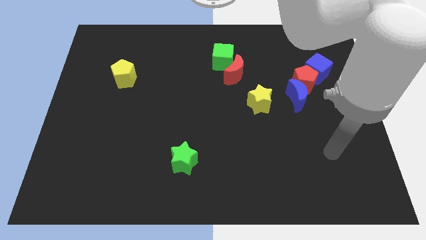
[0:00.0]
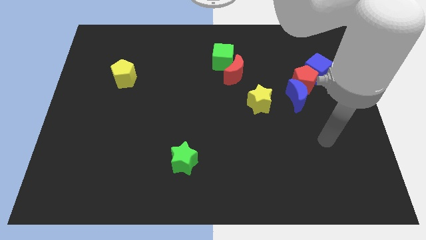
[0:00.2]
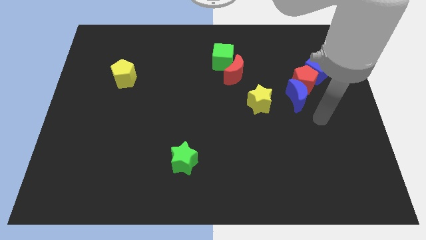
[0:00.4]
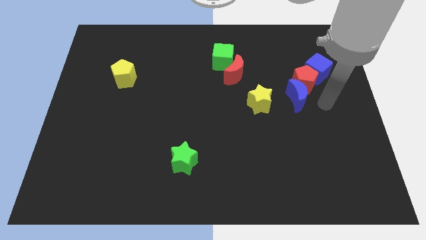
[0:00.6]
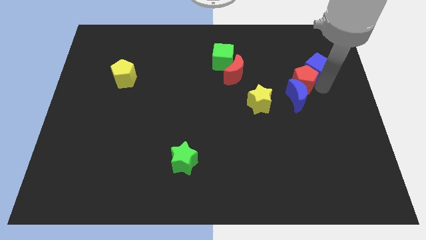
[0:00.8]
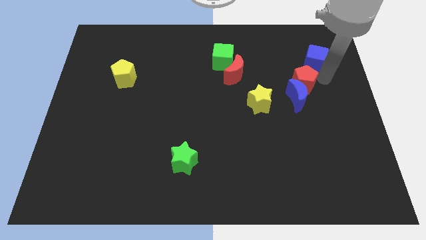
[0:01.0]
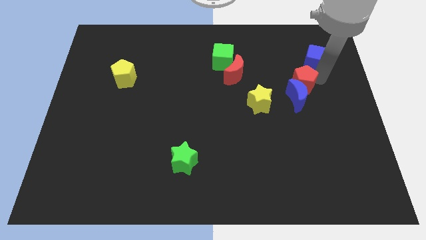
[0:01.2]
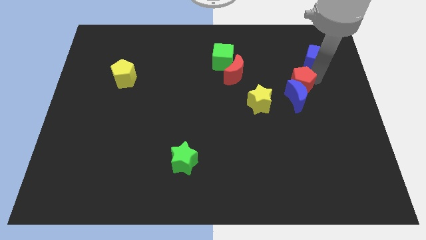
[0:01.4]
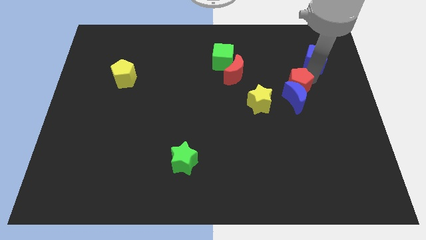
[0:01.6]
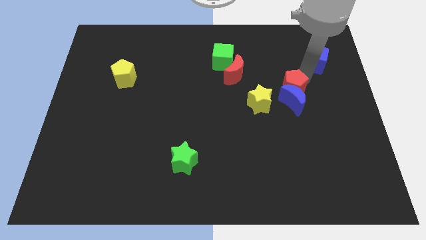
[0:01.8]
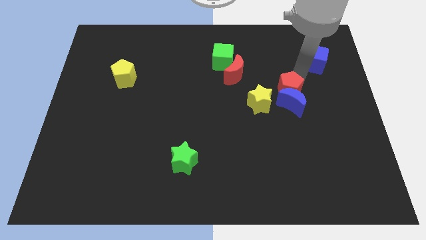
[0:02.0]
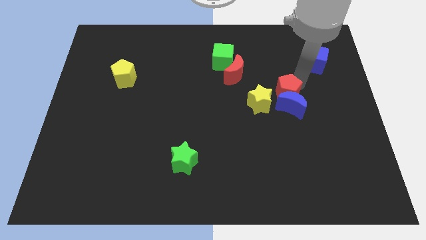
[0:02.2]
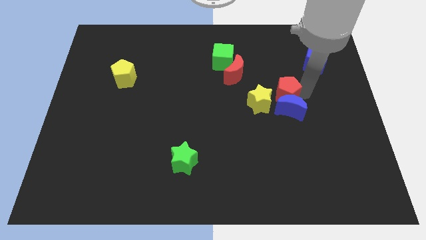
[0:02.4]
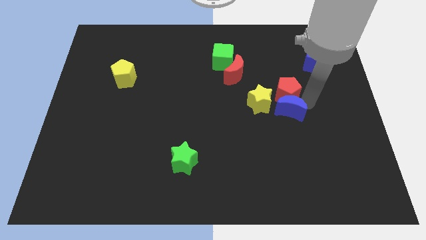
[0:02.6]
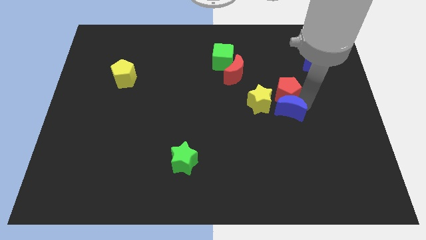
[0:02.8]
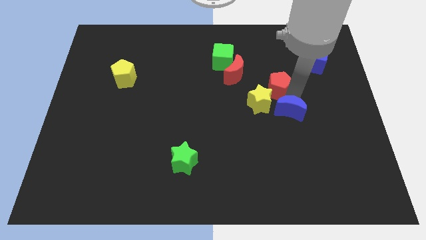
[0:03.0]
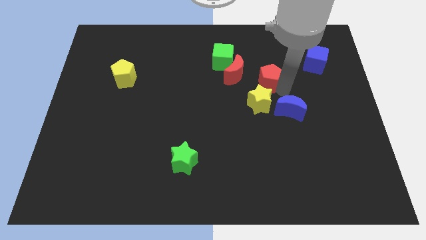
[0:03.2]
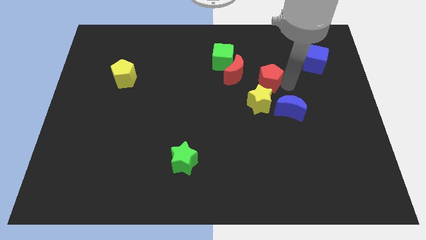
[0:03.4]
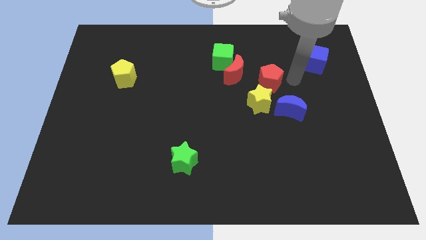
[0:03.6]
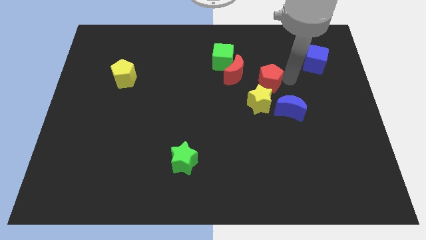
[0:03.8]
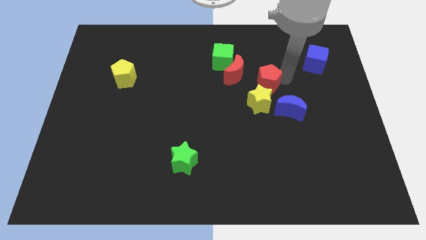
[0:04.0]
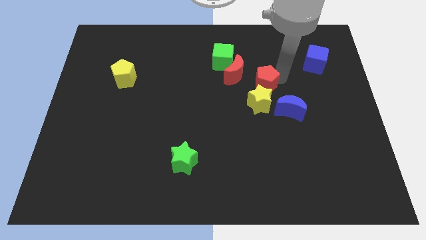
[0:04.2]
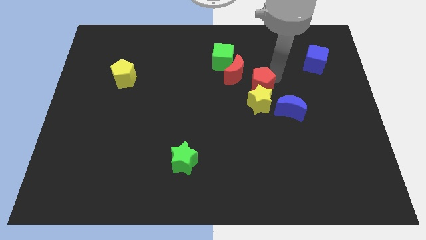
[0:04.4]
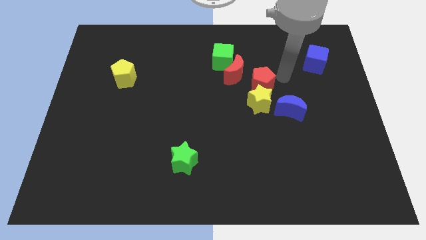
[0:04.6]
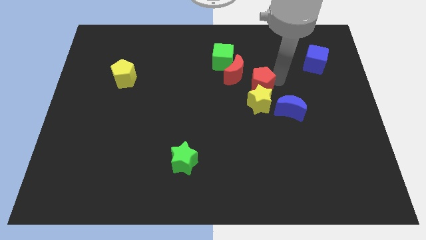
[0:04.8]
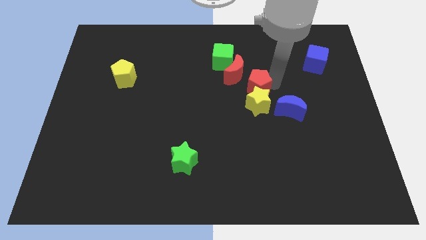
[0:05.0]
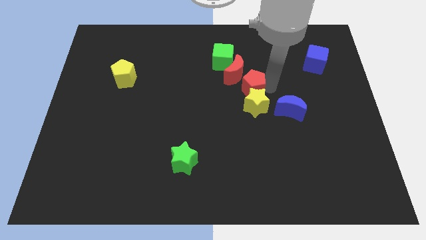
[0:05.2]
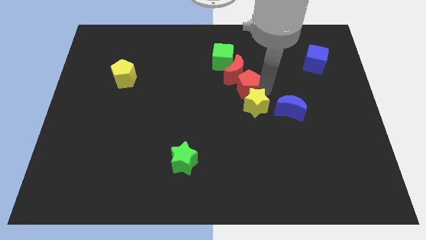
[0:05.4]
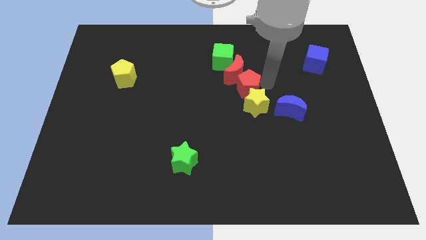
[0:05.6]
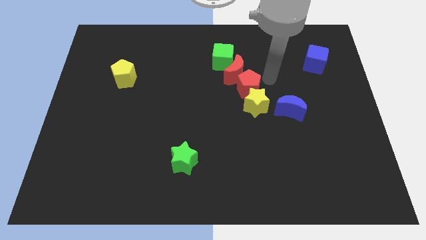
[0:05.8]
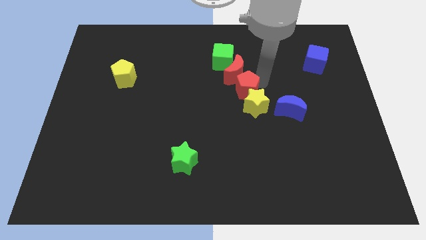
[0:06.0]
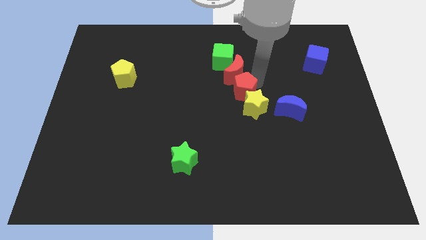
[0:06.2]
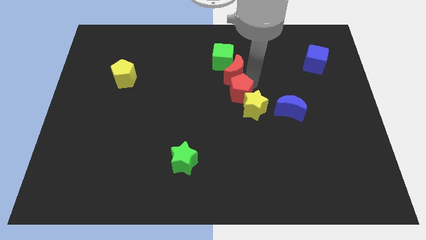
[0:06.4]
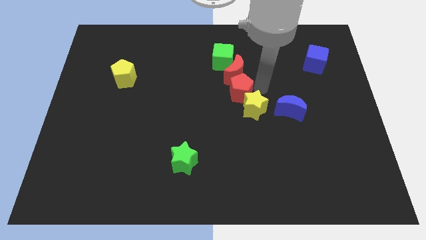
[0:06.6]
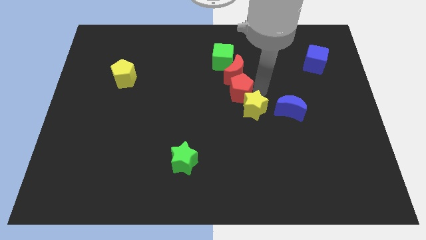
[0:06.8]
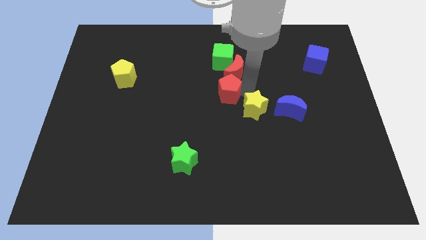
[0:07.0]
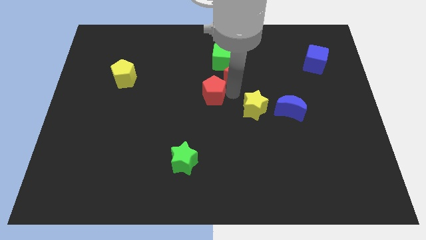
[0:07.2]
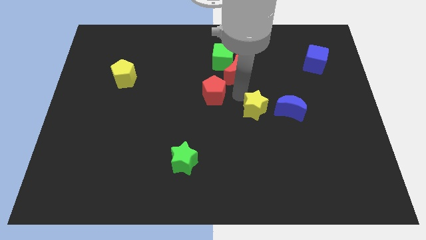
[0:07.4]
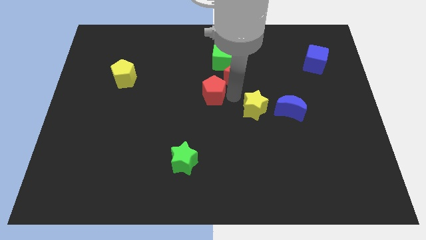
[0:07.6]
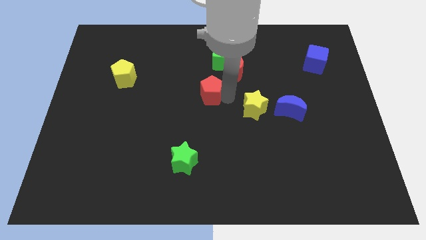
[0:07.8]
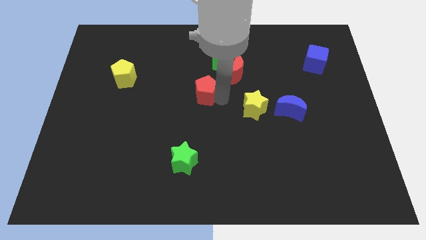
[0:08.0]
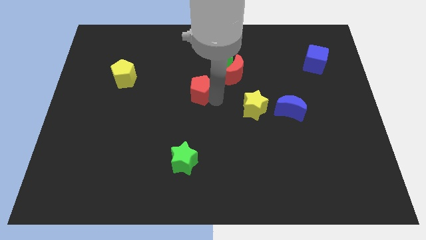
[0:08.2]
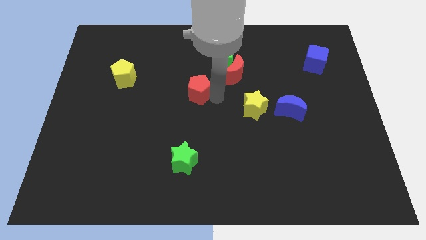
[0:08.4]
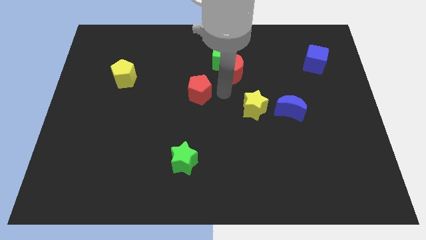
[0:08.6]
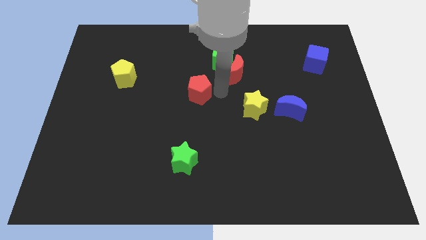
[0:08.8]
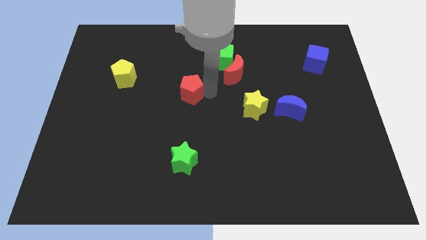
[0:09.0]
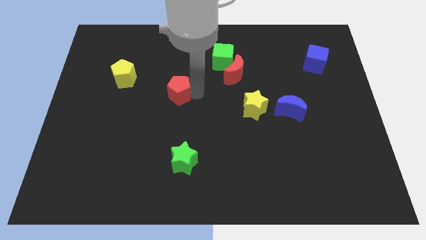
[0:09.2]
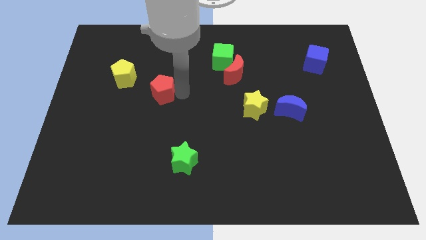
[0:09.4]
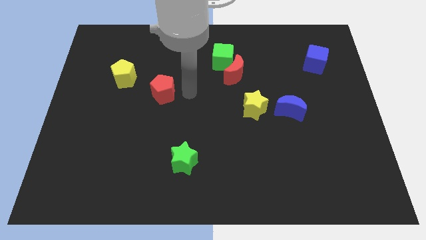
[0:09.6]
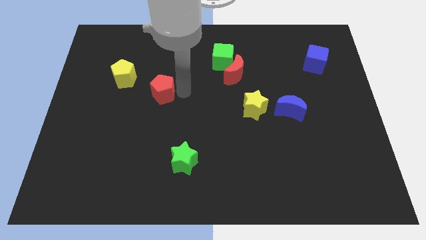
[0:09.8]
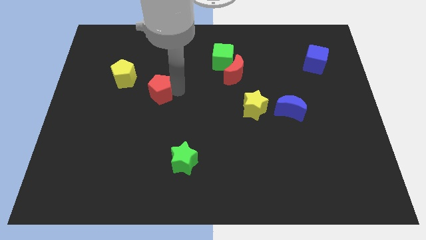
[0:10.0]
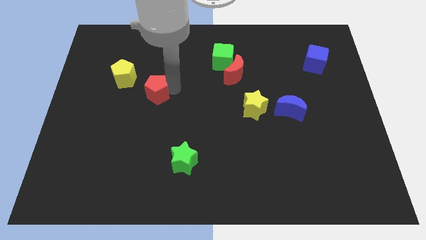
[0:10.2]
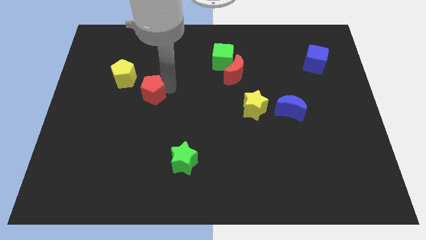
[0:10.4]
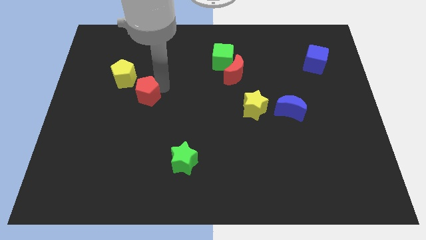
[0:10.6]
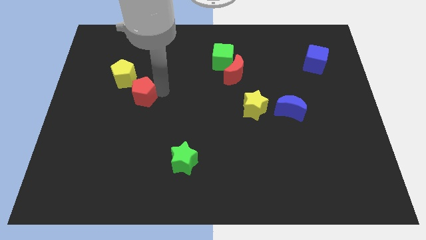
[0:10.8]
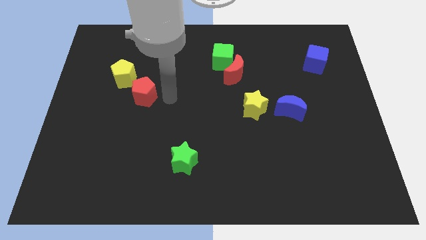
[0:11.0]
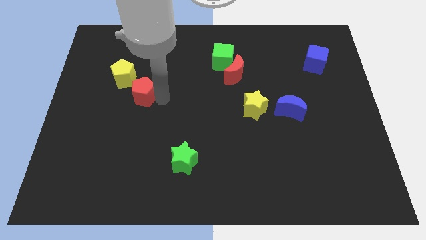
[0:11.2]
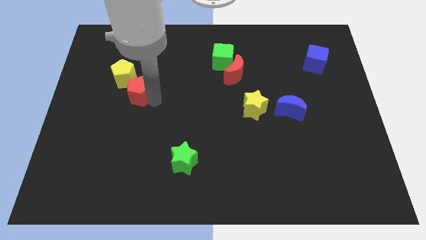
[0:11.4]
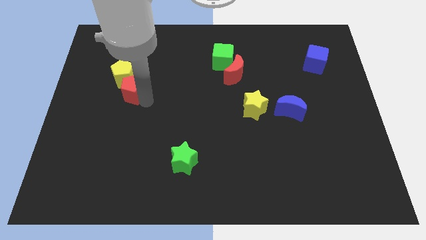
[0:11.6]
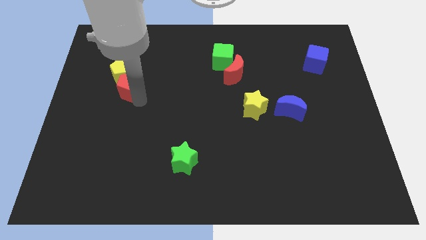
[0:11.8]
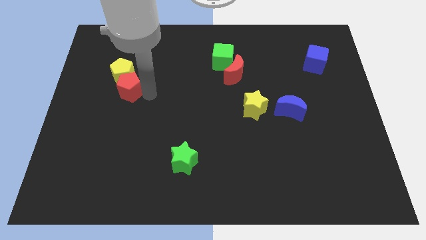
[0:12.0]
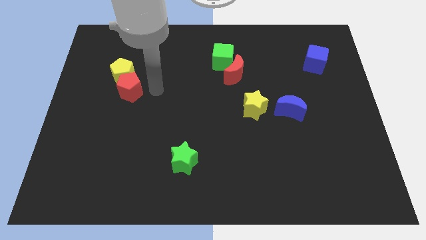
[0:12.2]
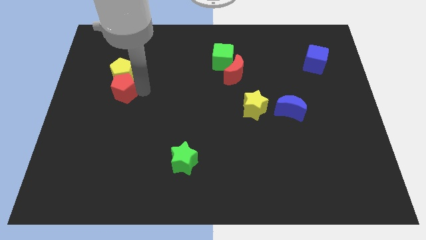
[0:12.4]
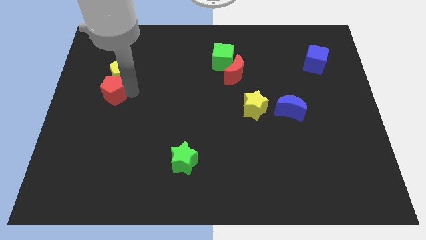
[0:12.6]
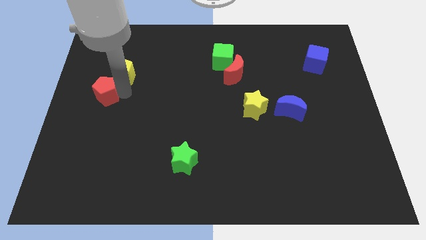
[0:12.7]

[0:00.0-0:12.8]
put the red pentagon to the center left

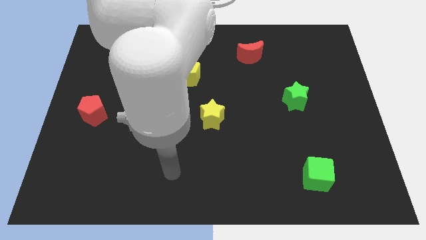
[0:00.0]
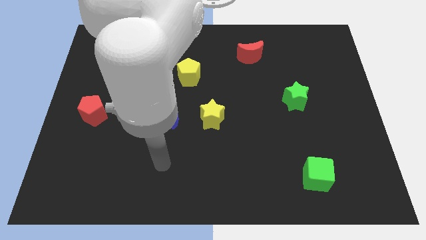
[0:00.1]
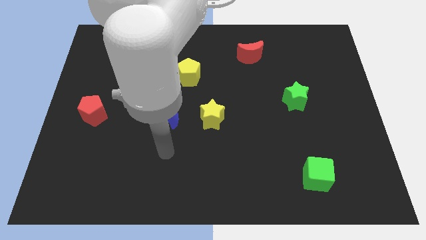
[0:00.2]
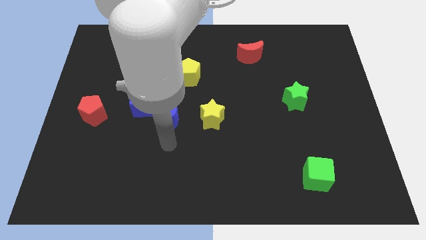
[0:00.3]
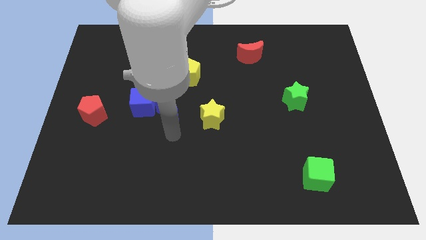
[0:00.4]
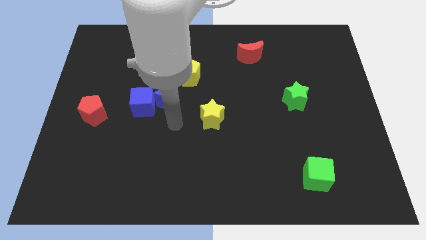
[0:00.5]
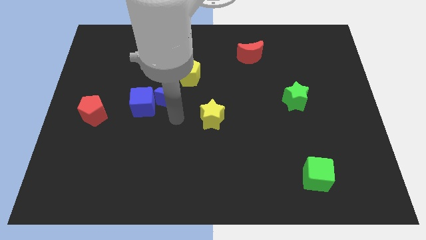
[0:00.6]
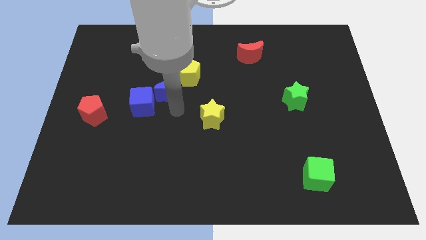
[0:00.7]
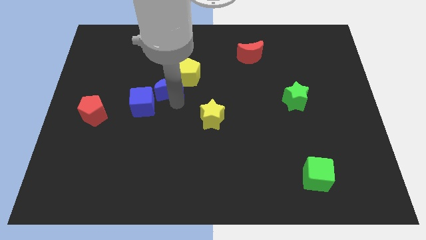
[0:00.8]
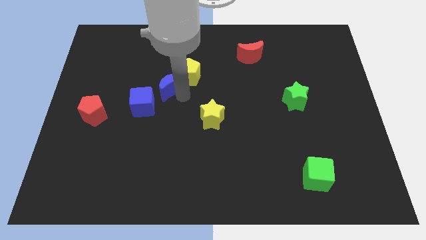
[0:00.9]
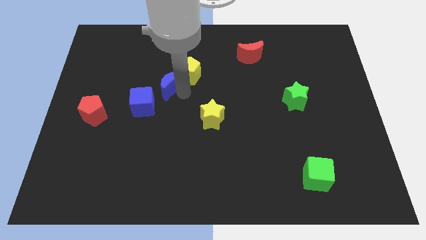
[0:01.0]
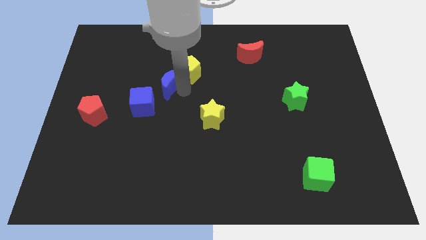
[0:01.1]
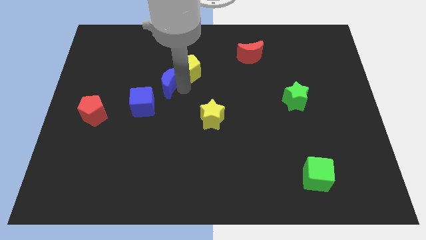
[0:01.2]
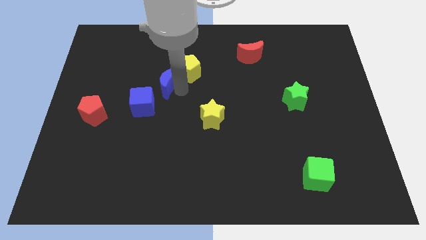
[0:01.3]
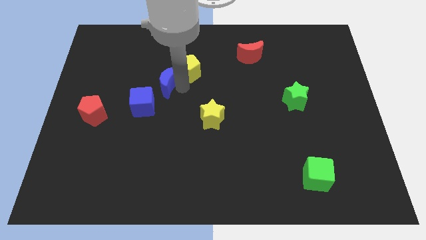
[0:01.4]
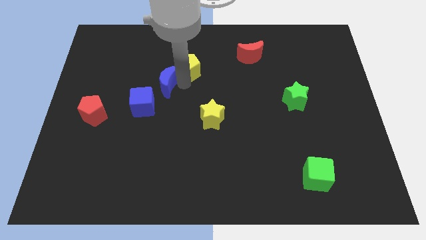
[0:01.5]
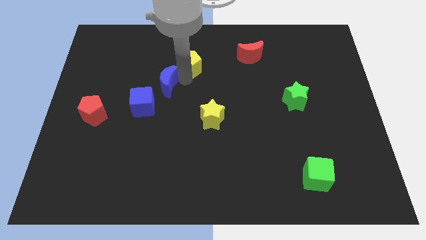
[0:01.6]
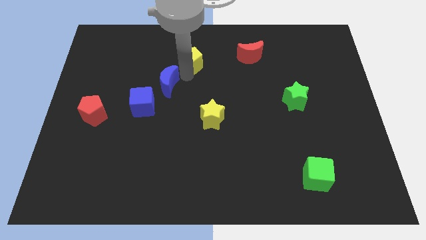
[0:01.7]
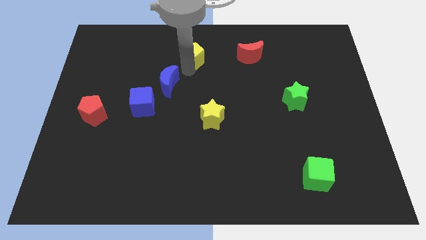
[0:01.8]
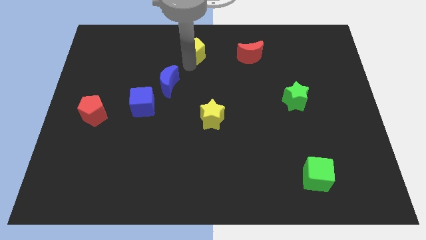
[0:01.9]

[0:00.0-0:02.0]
move the yellow pentagon to the top
